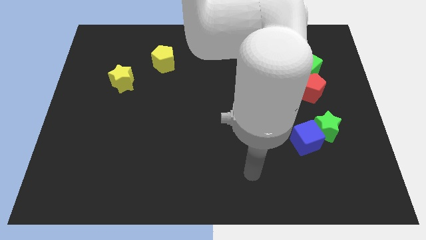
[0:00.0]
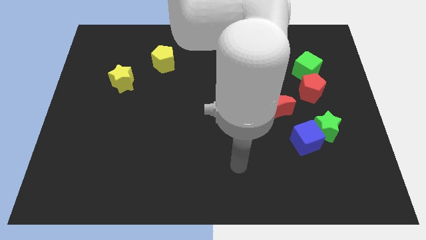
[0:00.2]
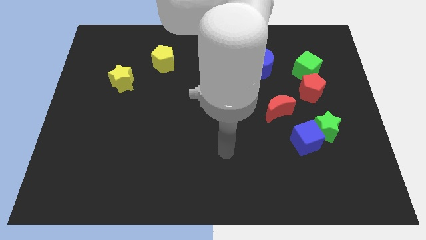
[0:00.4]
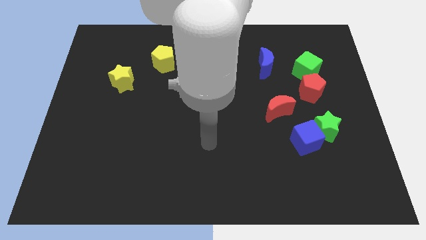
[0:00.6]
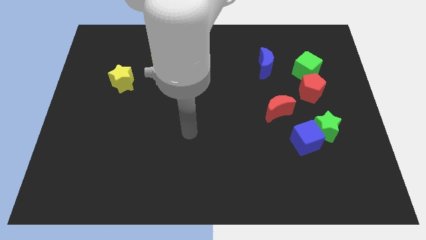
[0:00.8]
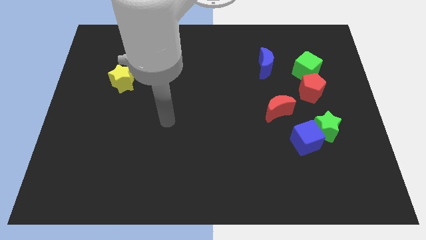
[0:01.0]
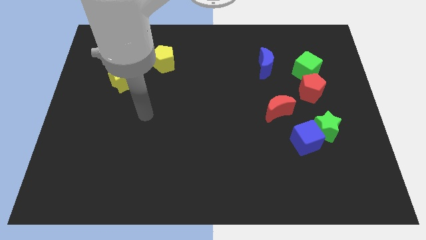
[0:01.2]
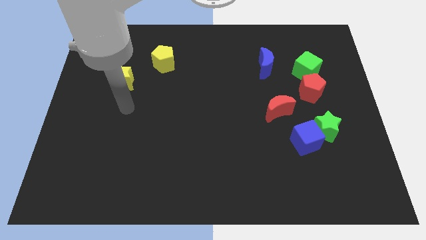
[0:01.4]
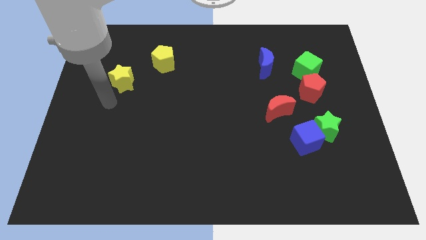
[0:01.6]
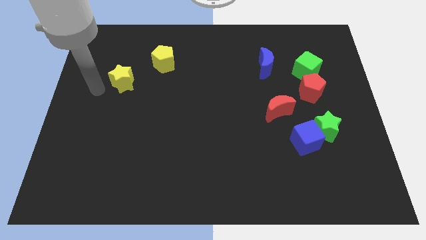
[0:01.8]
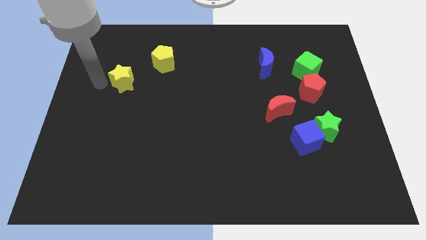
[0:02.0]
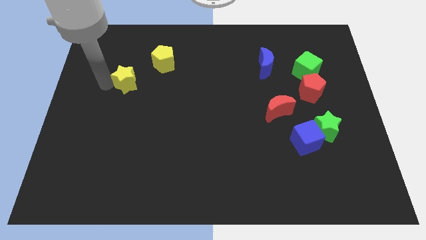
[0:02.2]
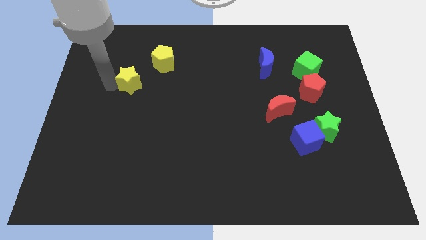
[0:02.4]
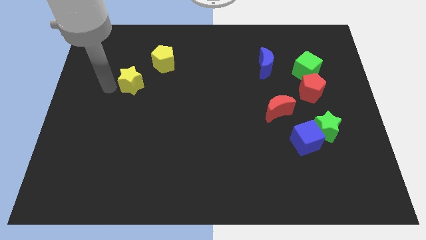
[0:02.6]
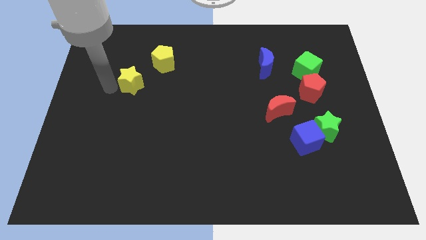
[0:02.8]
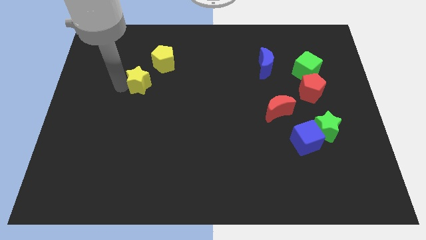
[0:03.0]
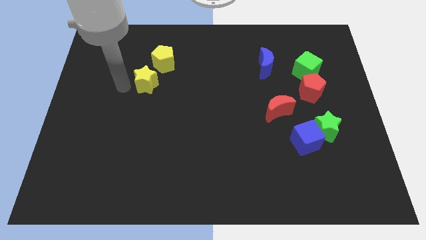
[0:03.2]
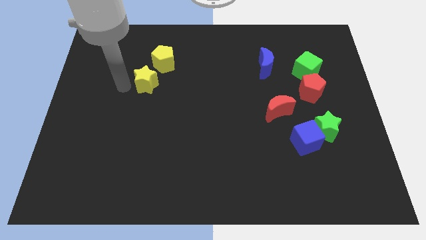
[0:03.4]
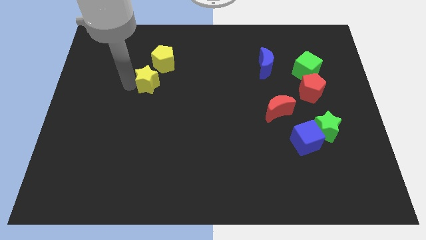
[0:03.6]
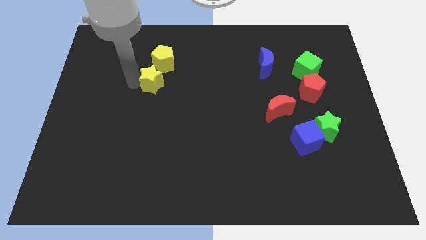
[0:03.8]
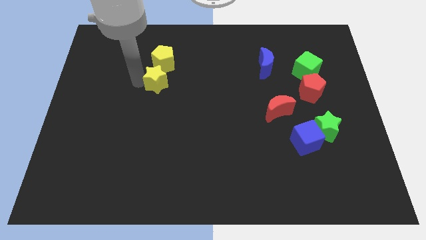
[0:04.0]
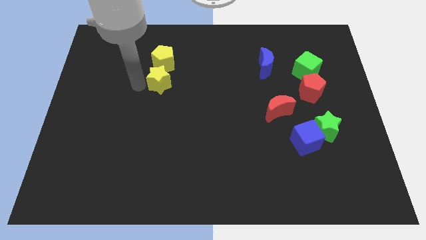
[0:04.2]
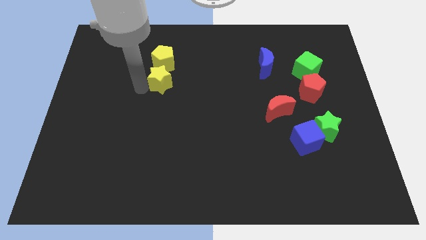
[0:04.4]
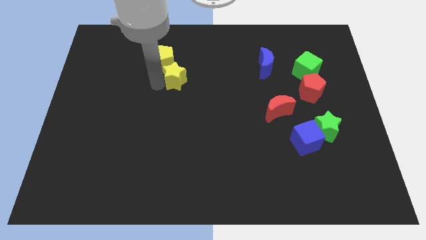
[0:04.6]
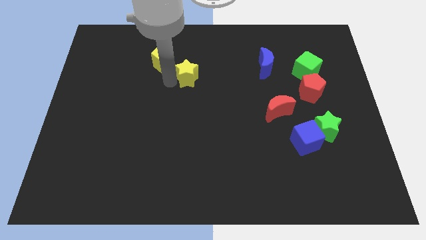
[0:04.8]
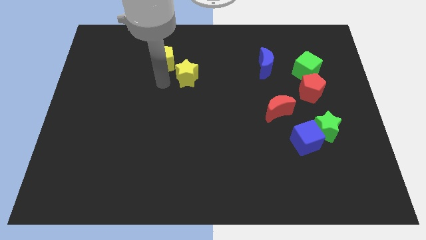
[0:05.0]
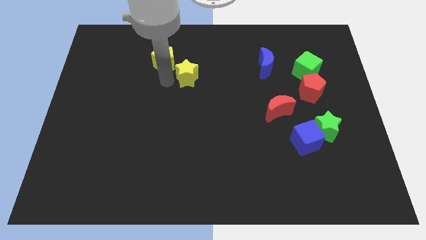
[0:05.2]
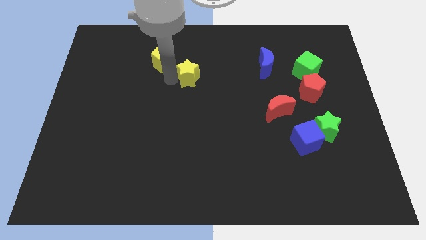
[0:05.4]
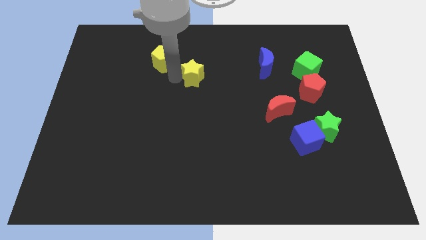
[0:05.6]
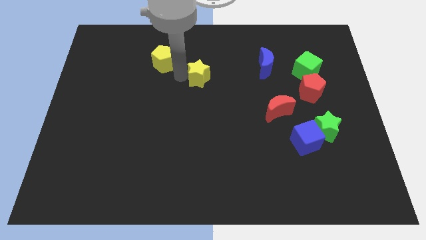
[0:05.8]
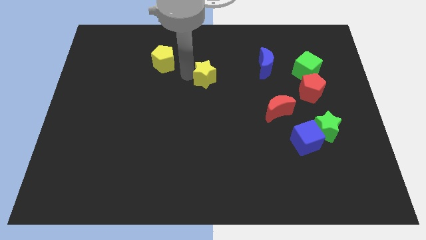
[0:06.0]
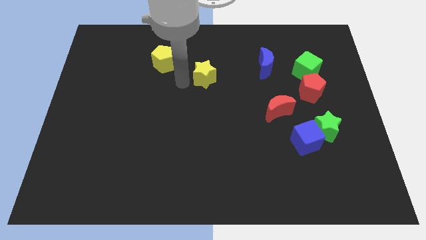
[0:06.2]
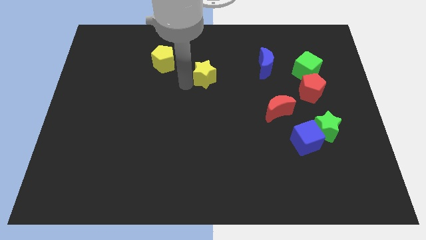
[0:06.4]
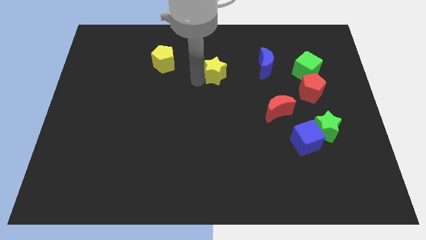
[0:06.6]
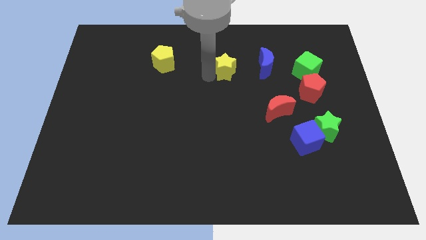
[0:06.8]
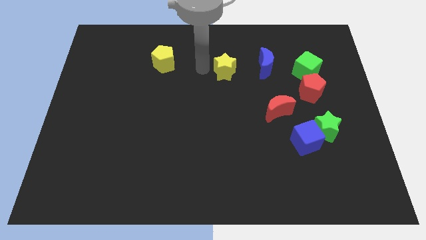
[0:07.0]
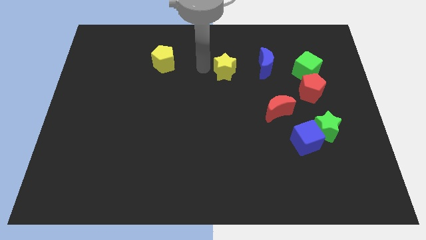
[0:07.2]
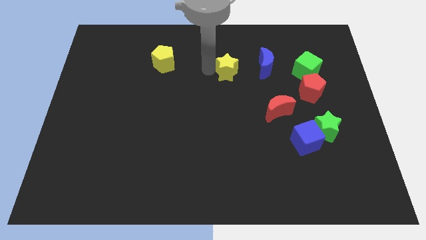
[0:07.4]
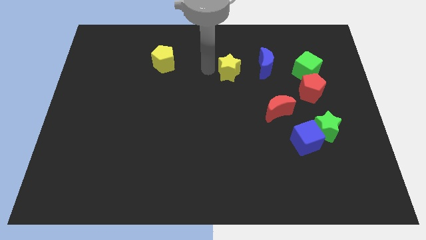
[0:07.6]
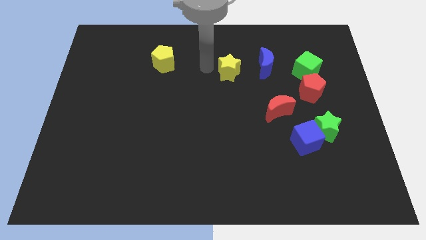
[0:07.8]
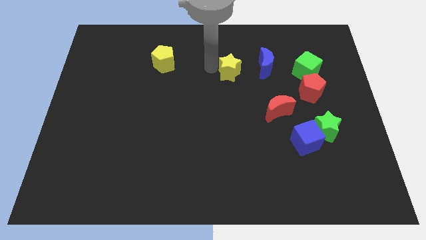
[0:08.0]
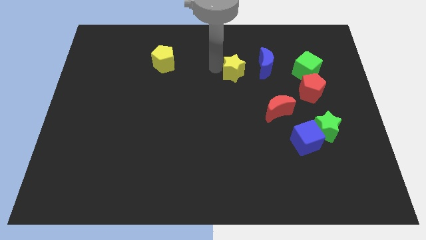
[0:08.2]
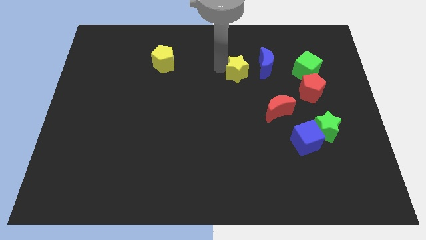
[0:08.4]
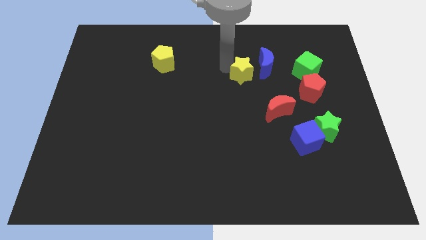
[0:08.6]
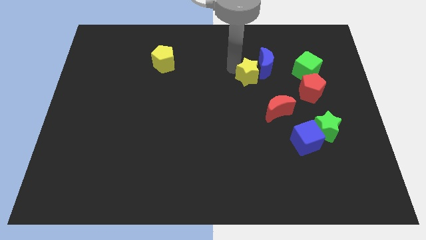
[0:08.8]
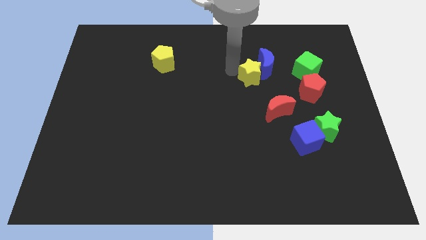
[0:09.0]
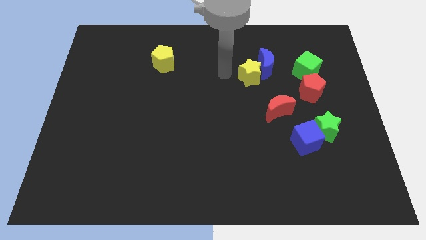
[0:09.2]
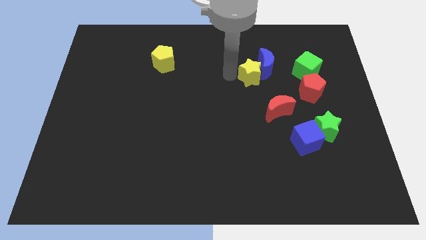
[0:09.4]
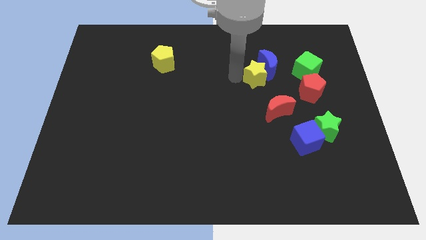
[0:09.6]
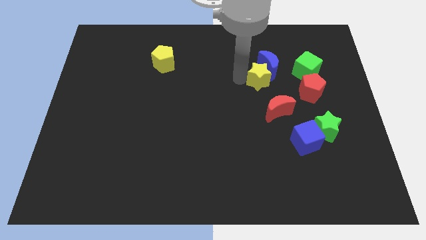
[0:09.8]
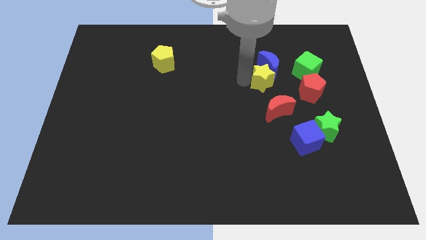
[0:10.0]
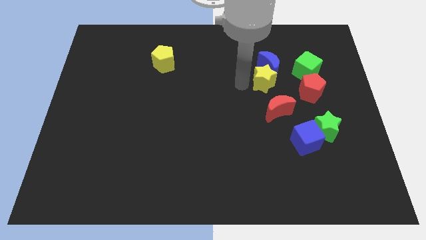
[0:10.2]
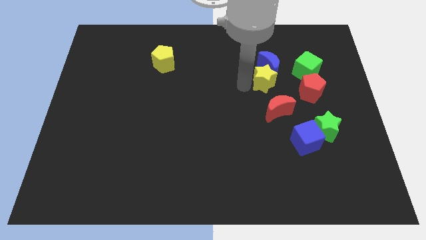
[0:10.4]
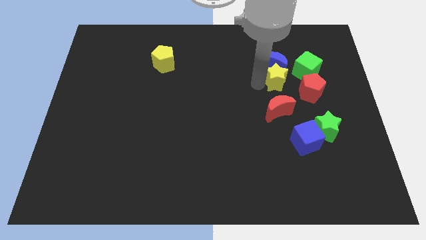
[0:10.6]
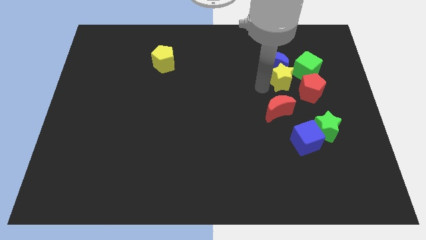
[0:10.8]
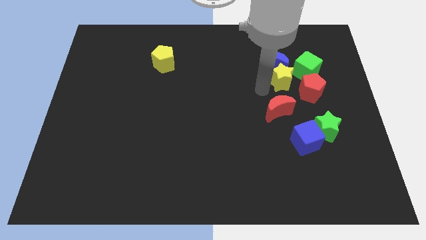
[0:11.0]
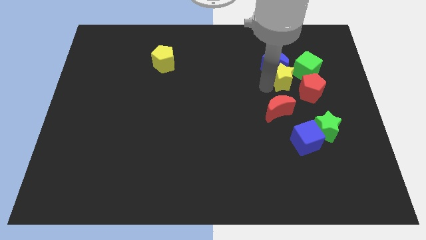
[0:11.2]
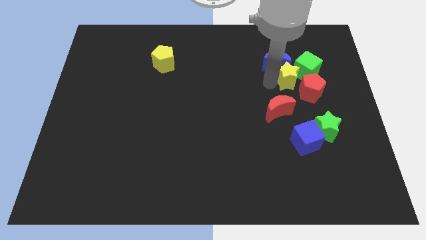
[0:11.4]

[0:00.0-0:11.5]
move the yellow star next to the green cube

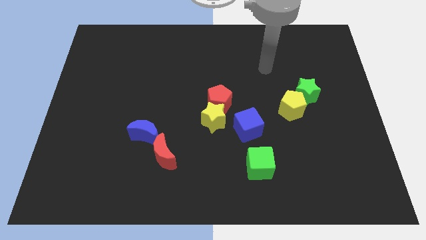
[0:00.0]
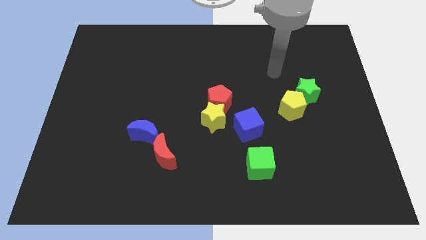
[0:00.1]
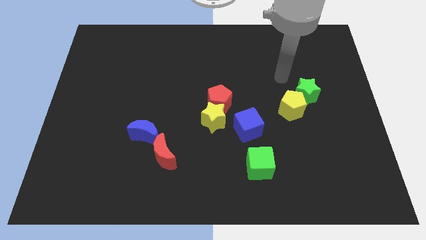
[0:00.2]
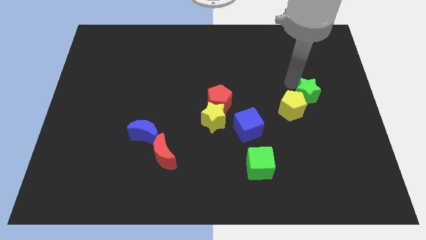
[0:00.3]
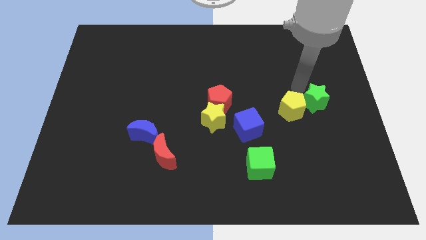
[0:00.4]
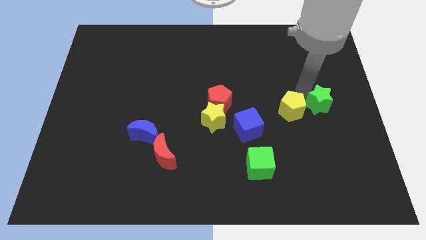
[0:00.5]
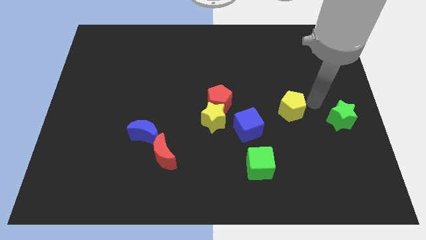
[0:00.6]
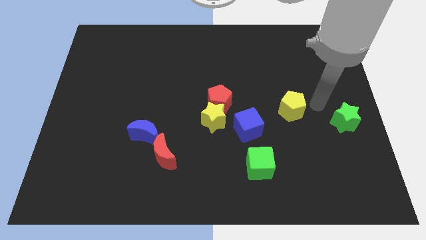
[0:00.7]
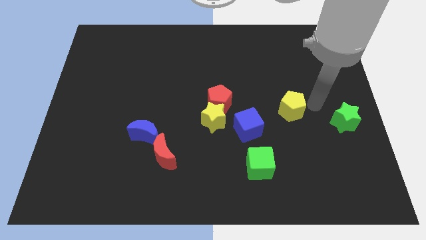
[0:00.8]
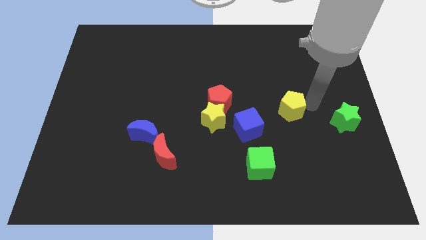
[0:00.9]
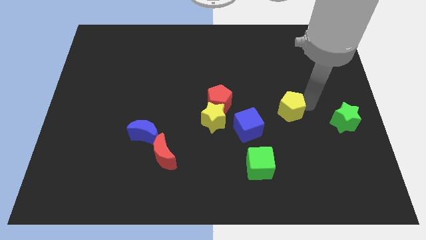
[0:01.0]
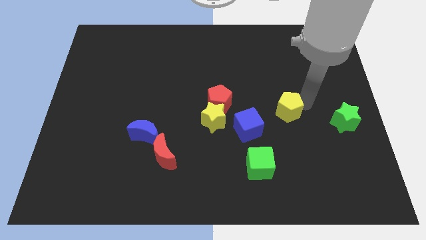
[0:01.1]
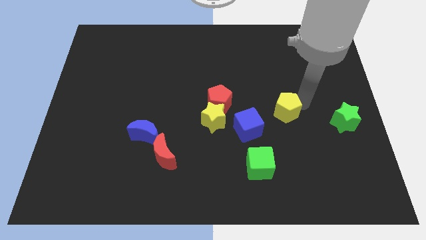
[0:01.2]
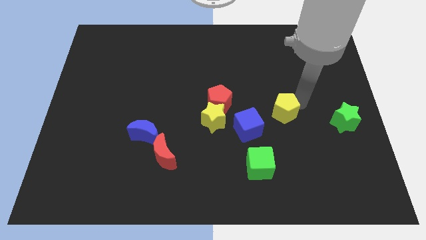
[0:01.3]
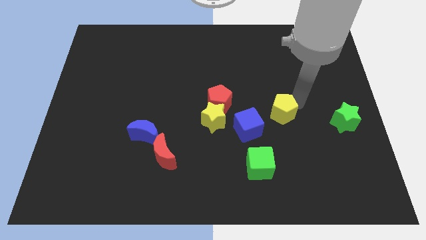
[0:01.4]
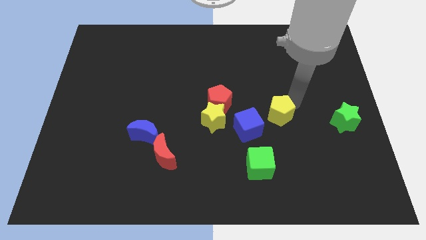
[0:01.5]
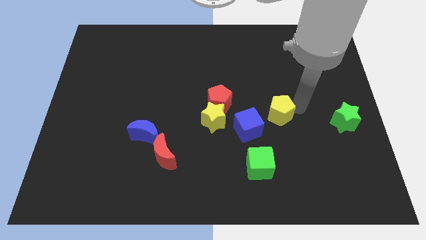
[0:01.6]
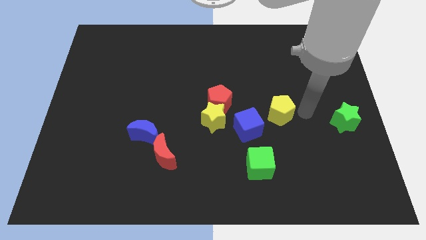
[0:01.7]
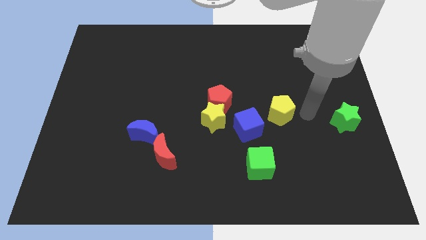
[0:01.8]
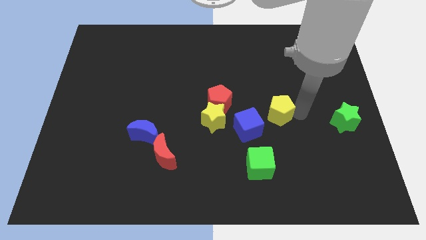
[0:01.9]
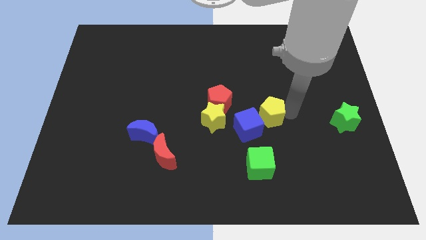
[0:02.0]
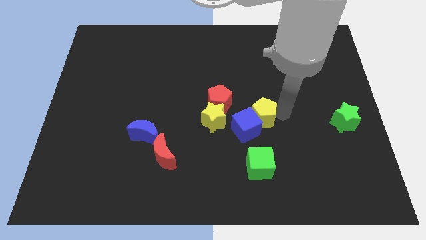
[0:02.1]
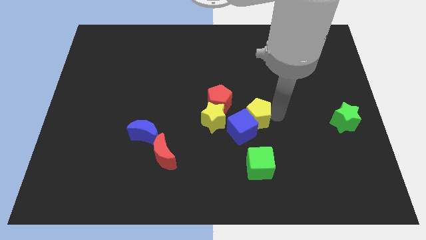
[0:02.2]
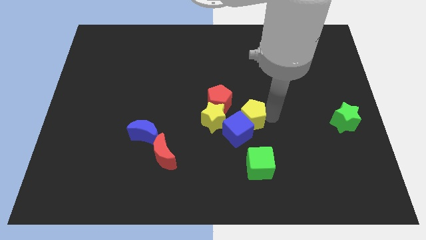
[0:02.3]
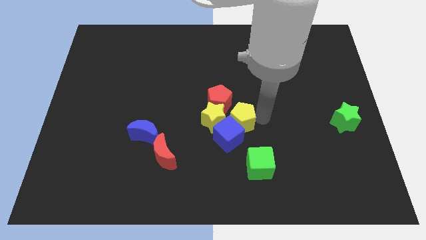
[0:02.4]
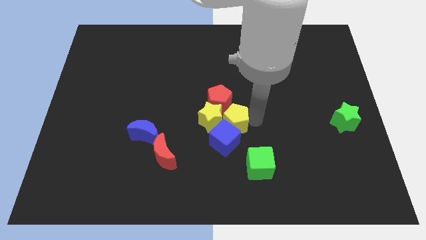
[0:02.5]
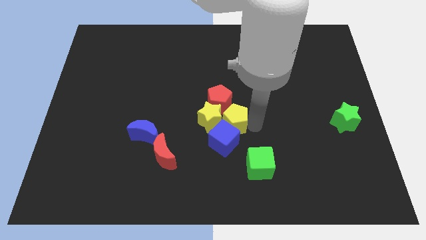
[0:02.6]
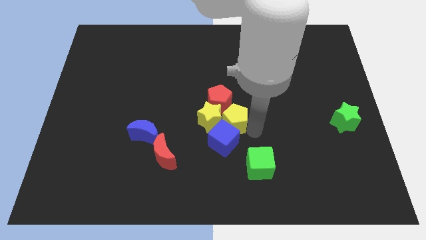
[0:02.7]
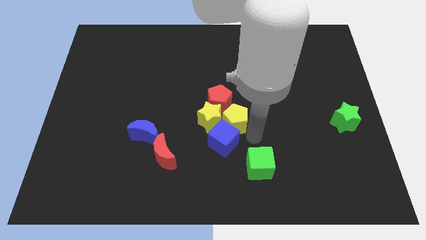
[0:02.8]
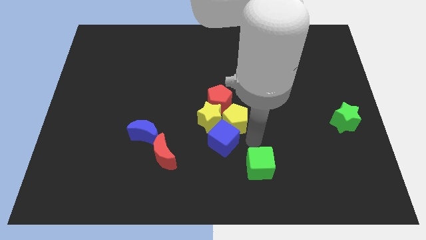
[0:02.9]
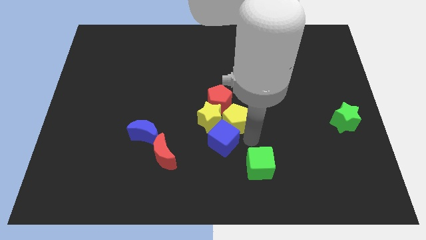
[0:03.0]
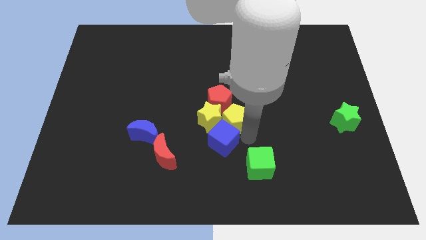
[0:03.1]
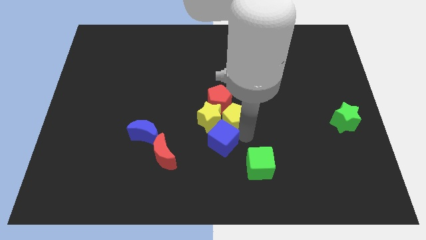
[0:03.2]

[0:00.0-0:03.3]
slide the yellow pentagon to the red pentagon
